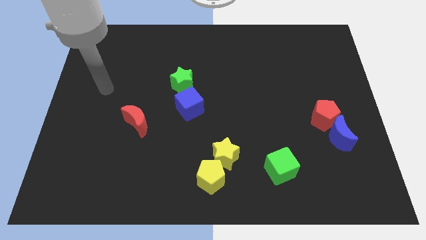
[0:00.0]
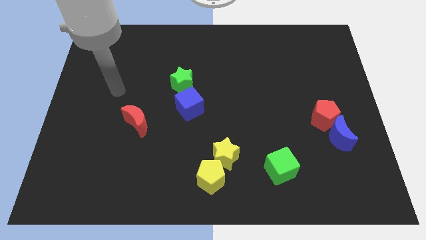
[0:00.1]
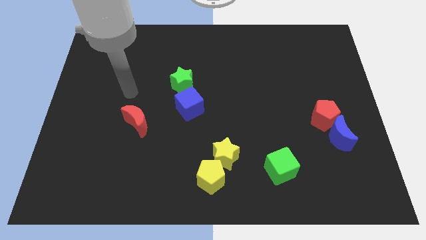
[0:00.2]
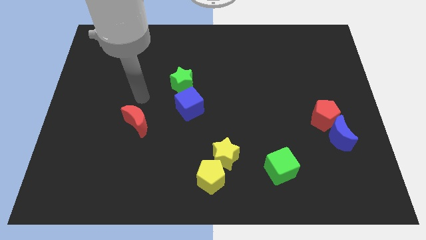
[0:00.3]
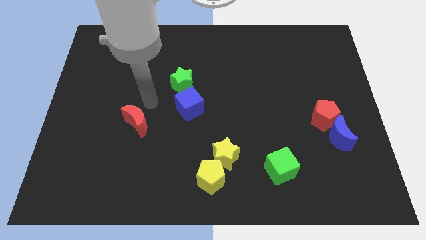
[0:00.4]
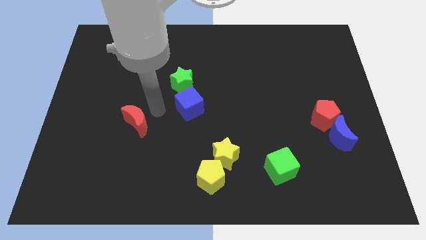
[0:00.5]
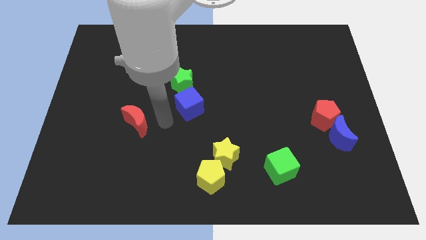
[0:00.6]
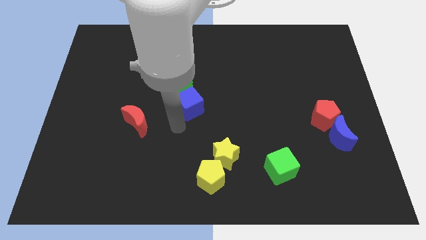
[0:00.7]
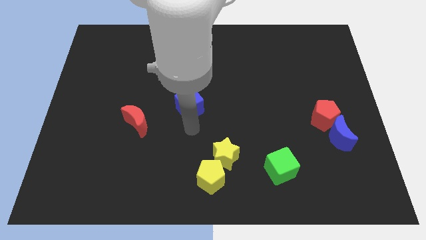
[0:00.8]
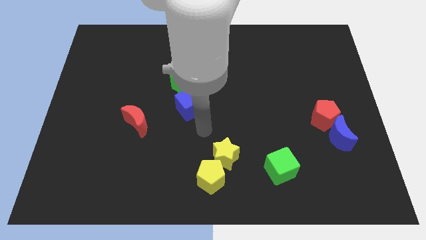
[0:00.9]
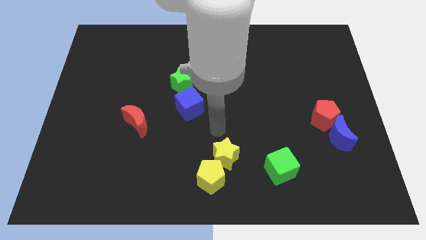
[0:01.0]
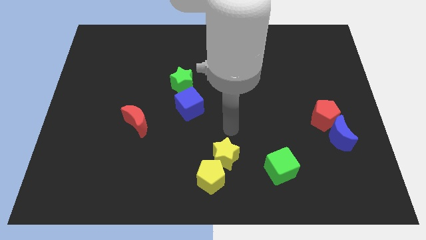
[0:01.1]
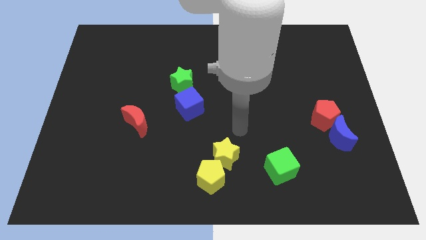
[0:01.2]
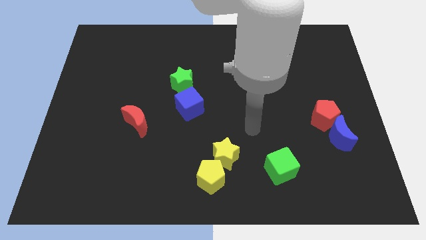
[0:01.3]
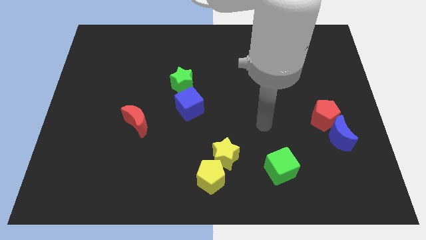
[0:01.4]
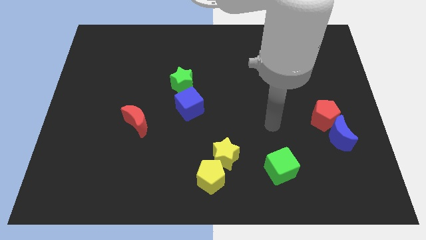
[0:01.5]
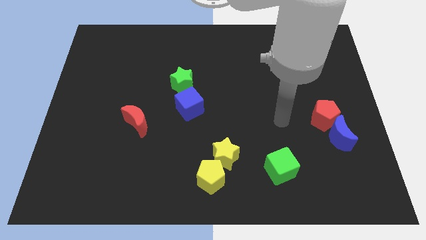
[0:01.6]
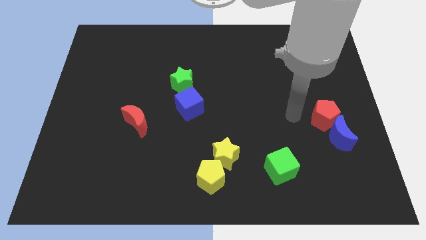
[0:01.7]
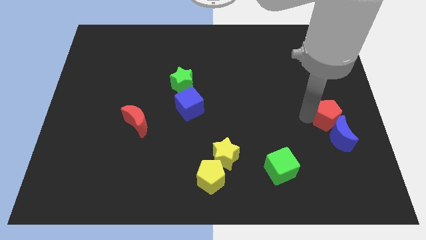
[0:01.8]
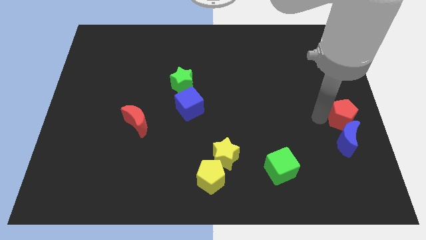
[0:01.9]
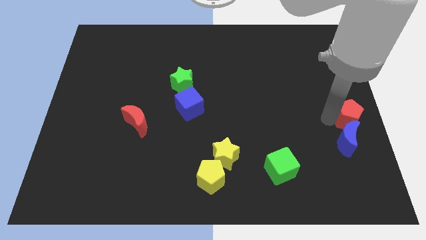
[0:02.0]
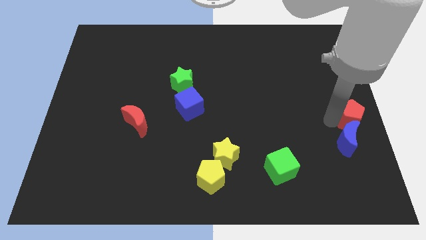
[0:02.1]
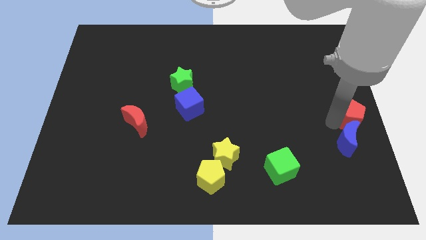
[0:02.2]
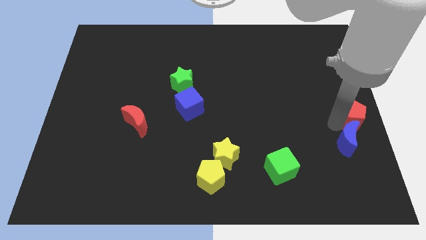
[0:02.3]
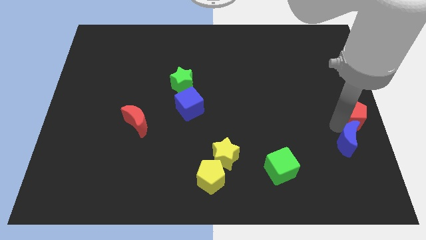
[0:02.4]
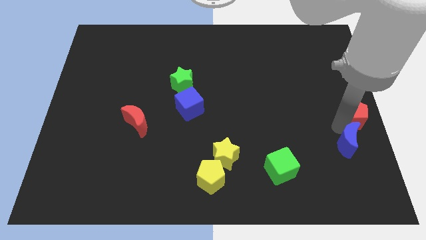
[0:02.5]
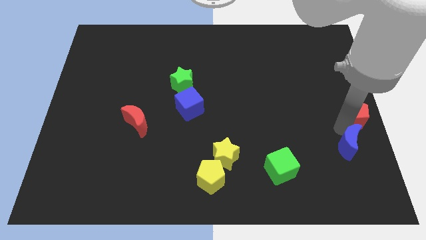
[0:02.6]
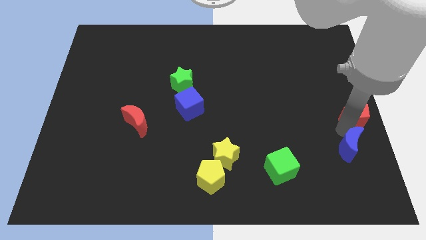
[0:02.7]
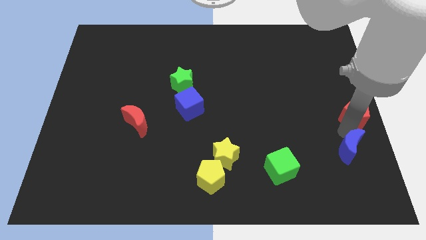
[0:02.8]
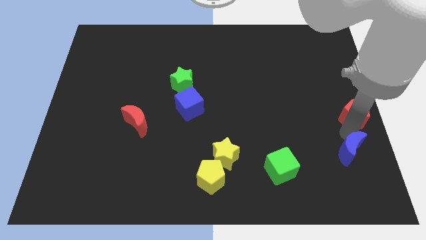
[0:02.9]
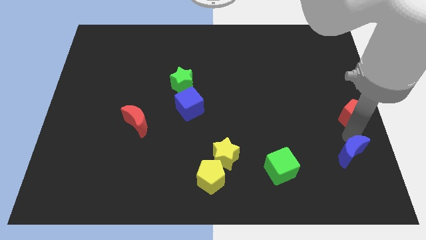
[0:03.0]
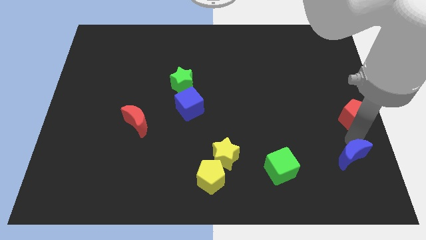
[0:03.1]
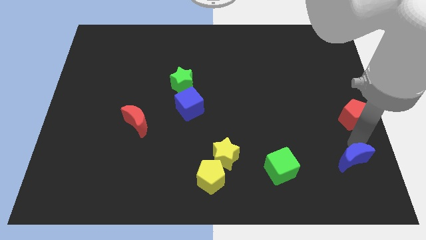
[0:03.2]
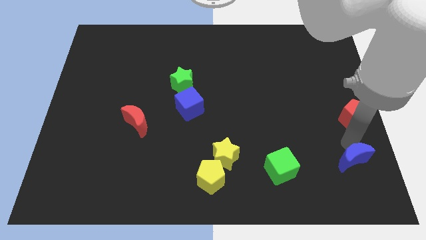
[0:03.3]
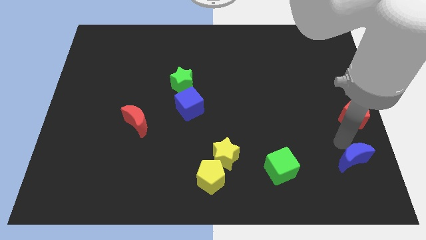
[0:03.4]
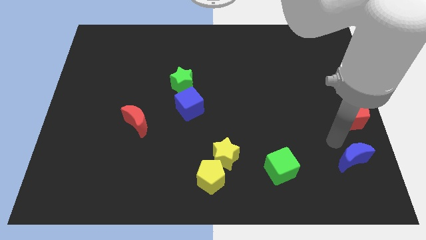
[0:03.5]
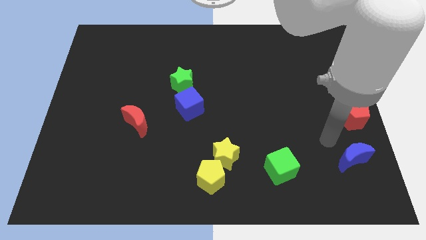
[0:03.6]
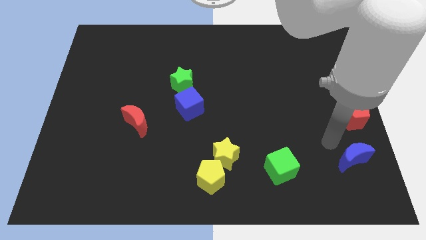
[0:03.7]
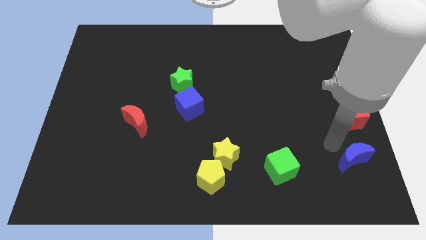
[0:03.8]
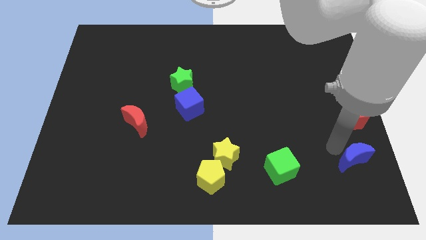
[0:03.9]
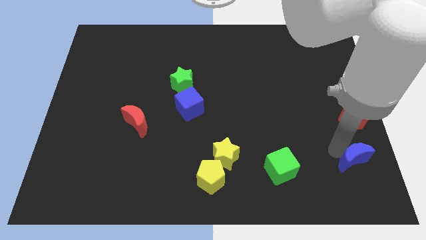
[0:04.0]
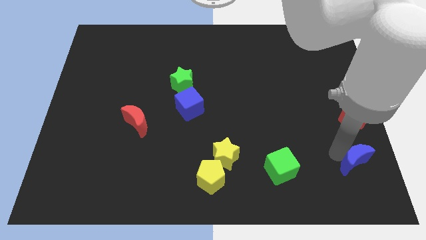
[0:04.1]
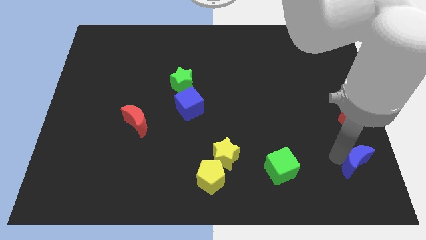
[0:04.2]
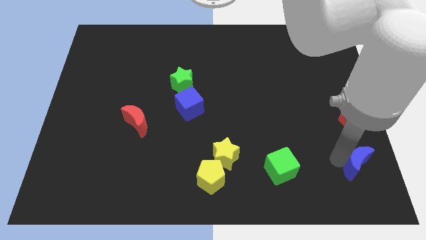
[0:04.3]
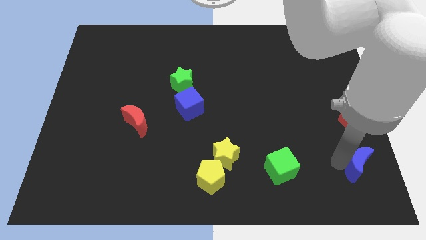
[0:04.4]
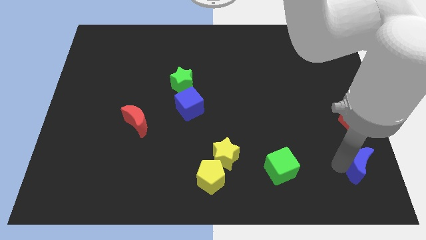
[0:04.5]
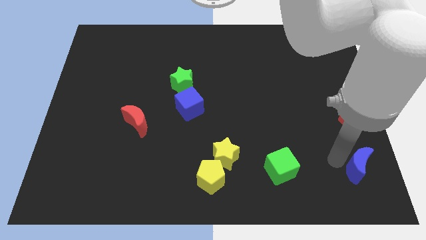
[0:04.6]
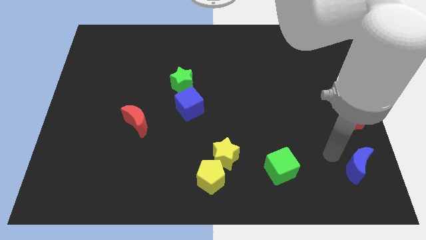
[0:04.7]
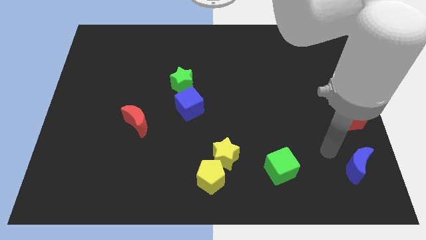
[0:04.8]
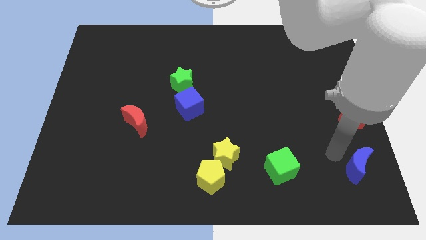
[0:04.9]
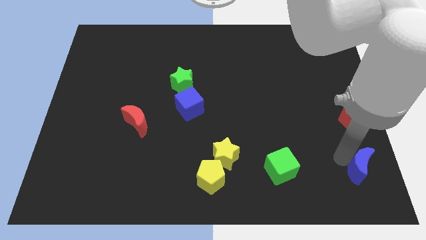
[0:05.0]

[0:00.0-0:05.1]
move the blue moon to the bottom right

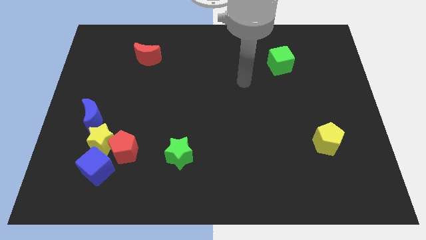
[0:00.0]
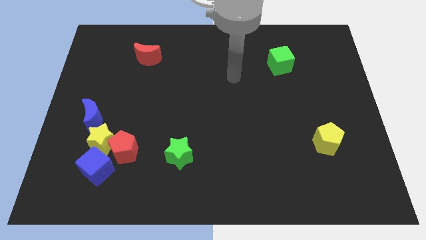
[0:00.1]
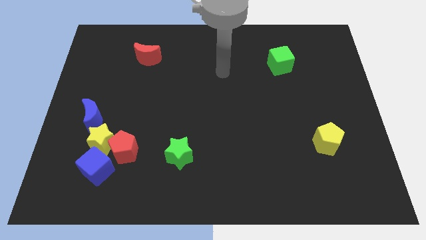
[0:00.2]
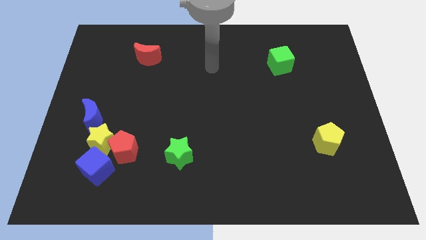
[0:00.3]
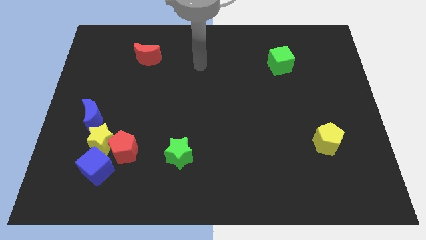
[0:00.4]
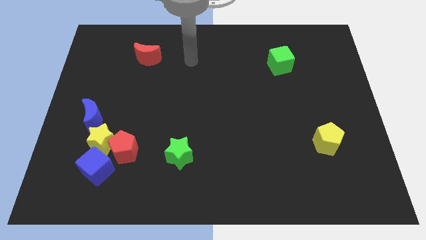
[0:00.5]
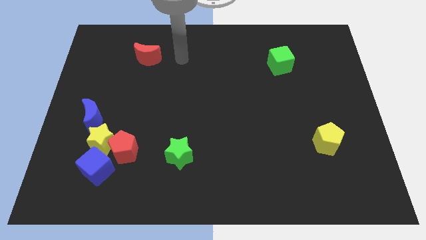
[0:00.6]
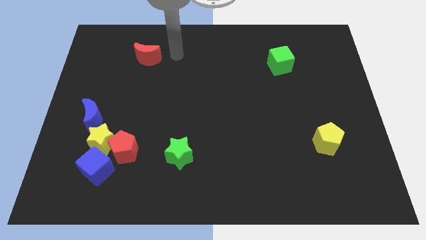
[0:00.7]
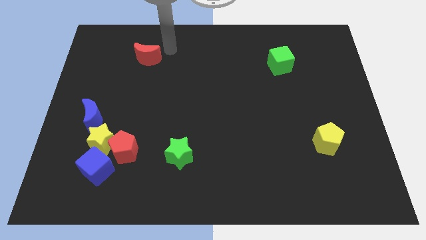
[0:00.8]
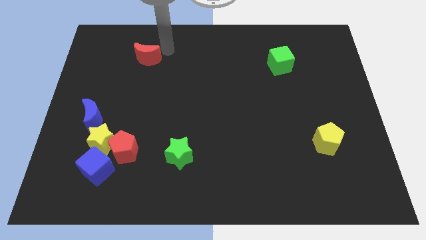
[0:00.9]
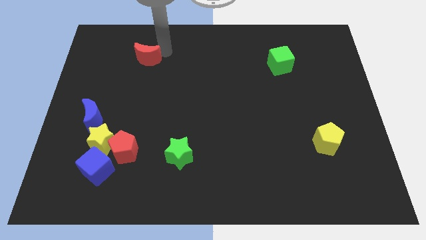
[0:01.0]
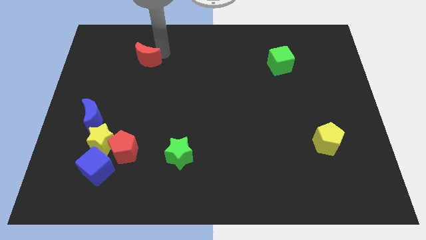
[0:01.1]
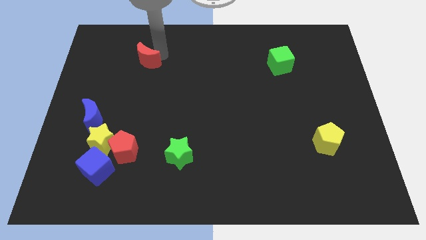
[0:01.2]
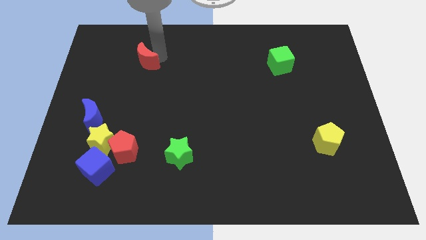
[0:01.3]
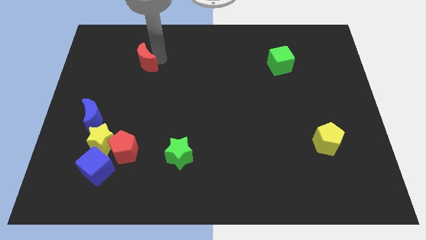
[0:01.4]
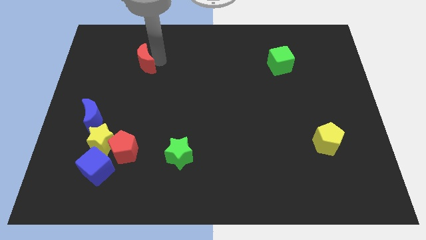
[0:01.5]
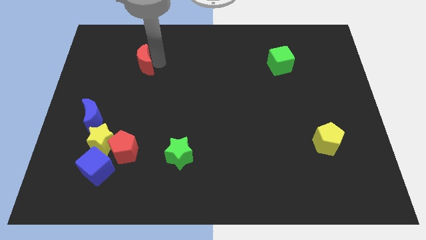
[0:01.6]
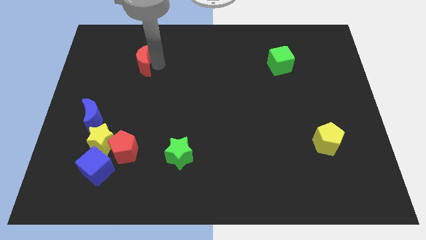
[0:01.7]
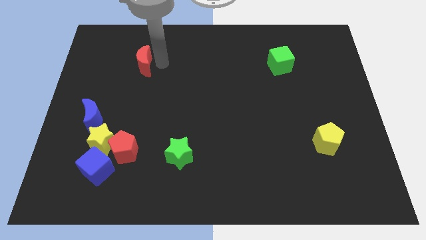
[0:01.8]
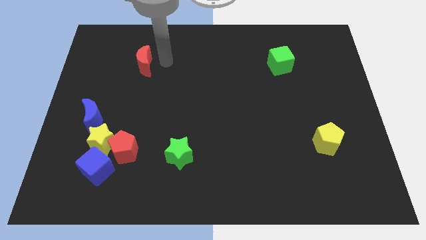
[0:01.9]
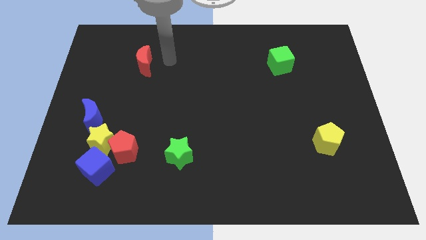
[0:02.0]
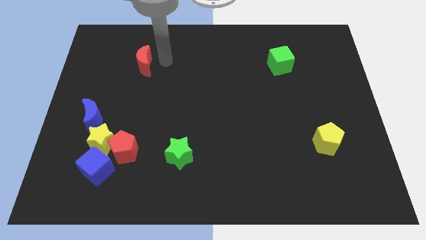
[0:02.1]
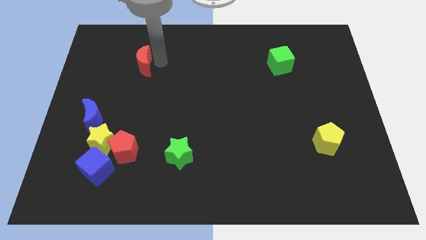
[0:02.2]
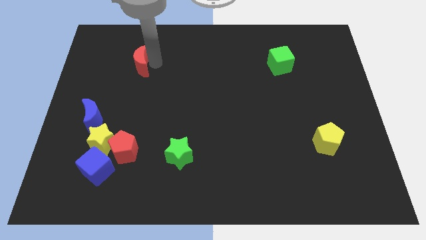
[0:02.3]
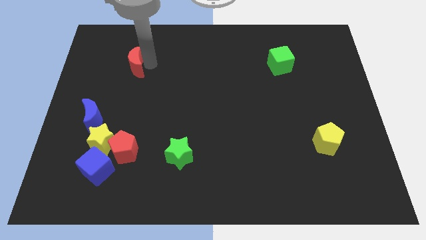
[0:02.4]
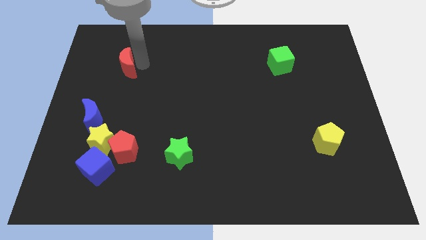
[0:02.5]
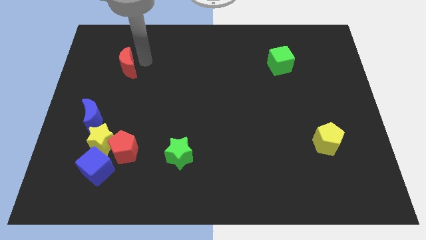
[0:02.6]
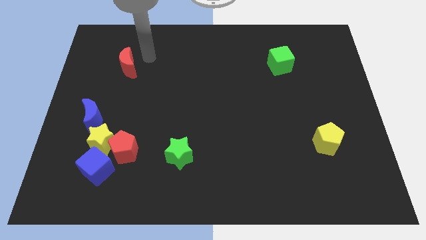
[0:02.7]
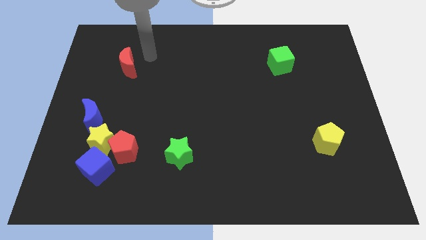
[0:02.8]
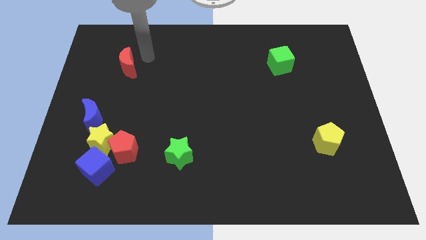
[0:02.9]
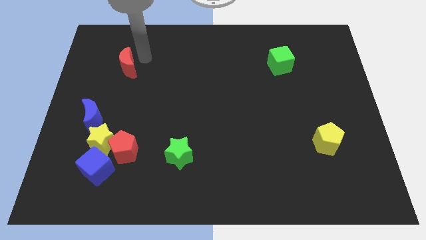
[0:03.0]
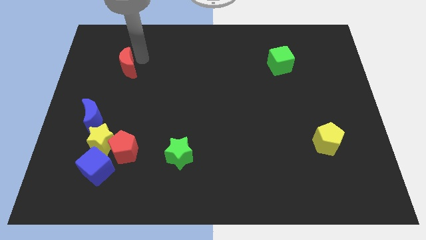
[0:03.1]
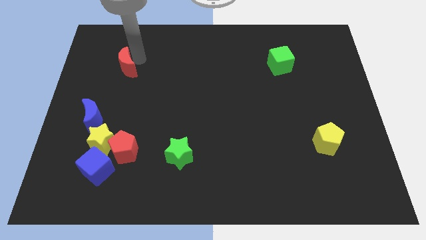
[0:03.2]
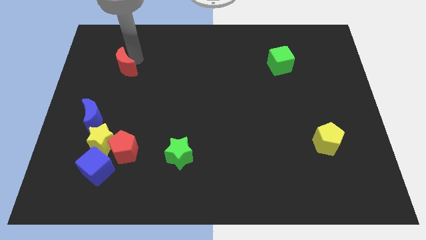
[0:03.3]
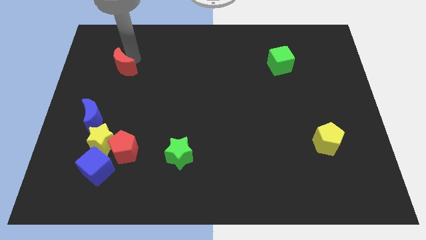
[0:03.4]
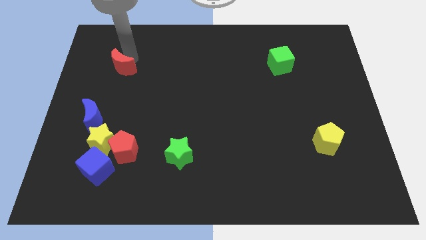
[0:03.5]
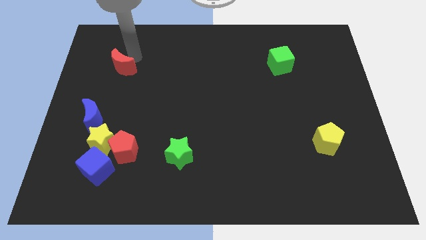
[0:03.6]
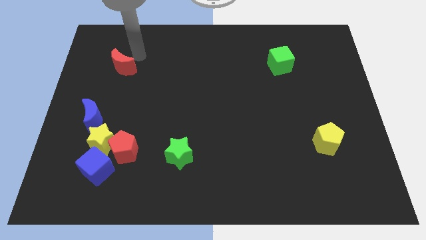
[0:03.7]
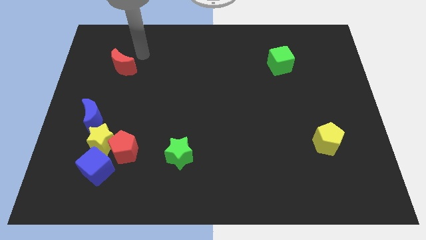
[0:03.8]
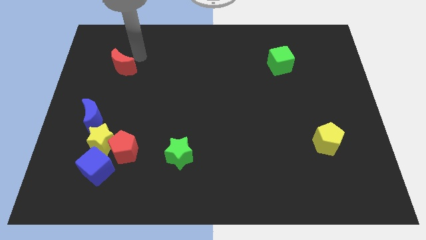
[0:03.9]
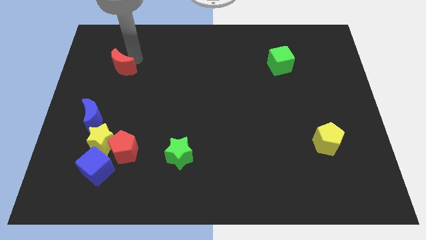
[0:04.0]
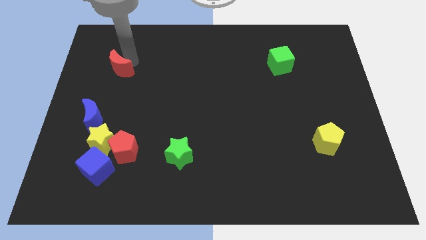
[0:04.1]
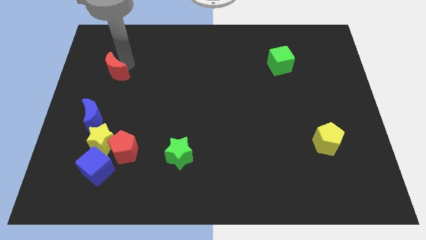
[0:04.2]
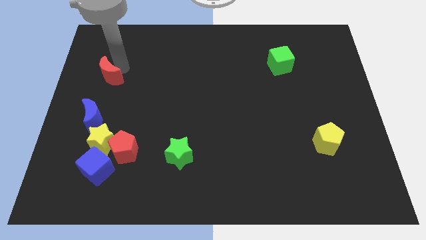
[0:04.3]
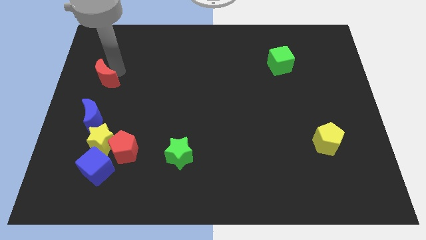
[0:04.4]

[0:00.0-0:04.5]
put the red moon to the center left
